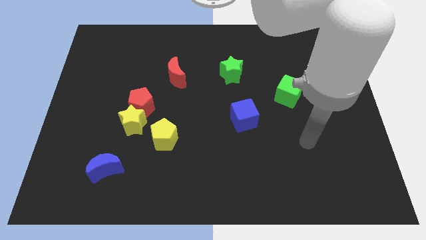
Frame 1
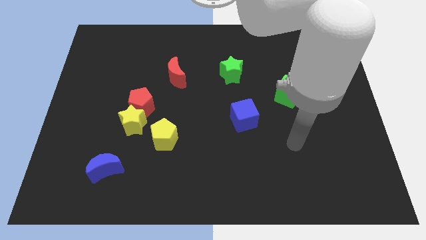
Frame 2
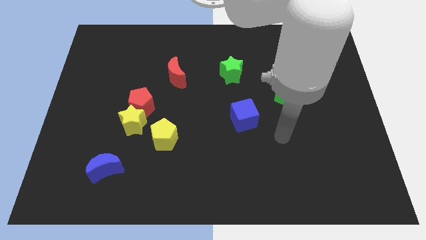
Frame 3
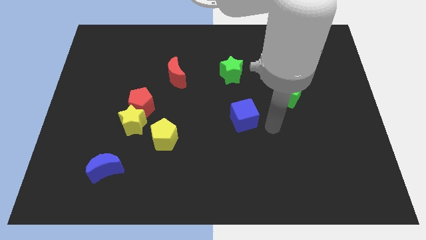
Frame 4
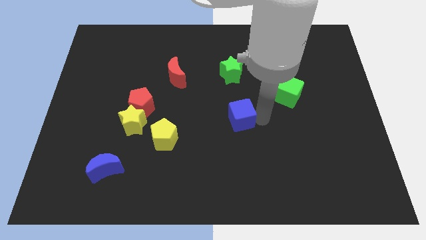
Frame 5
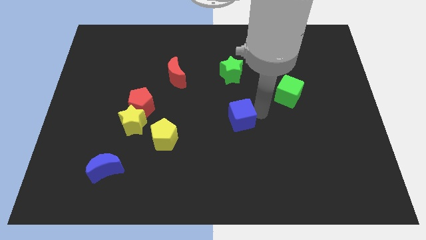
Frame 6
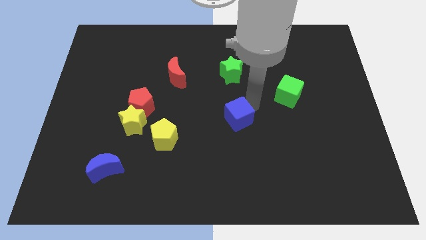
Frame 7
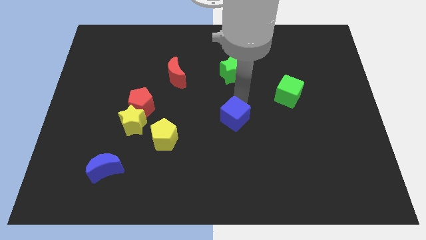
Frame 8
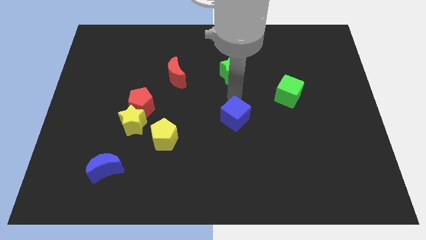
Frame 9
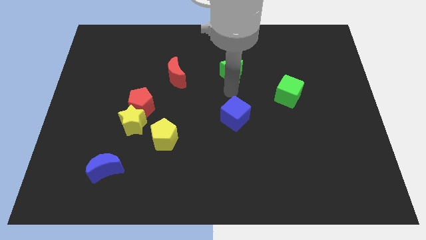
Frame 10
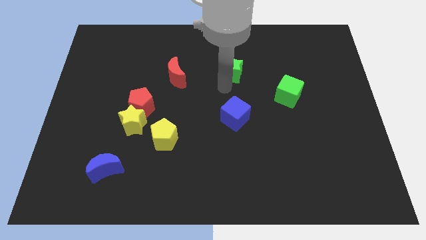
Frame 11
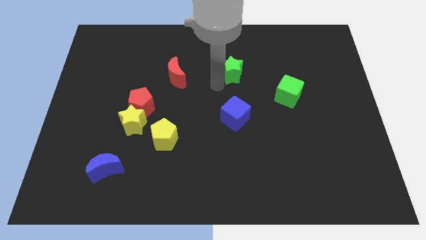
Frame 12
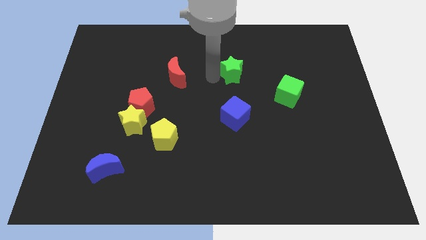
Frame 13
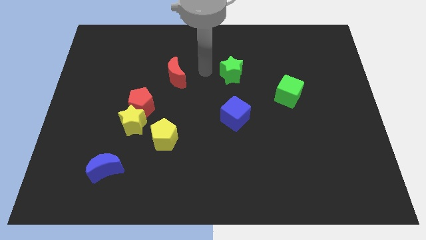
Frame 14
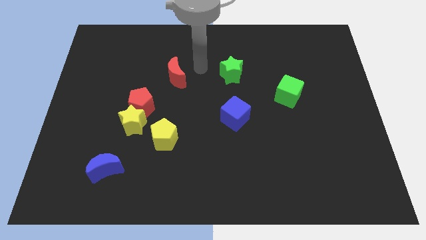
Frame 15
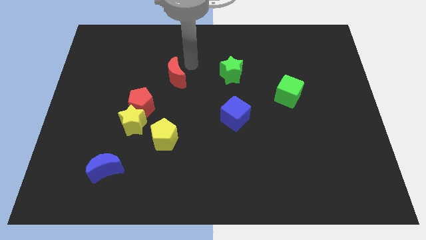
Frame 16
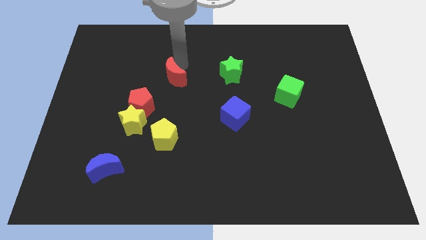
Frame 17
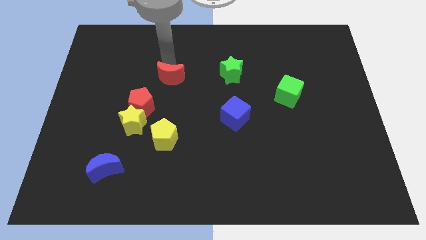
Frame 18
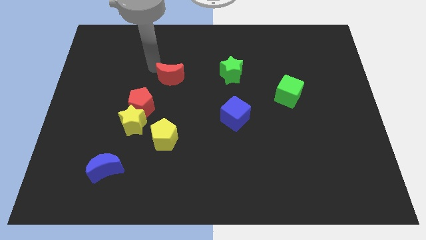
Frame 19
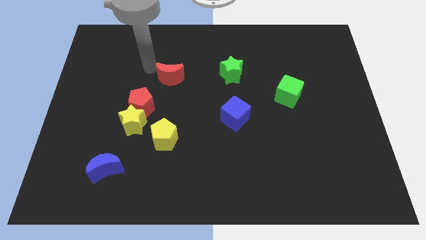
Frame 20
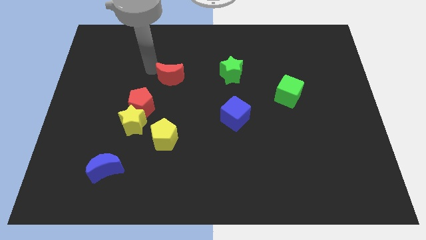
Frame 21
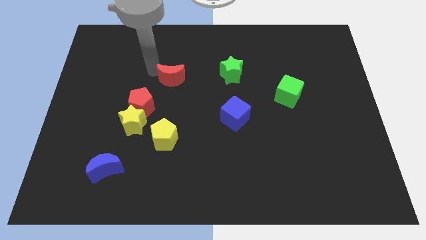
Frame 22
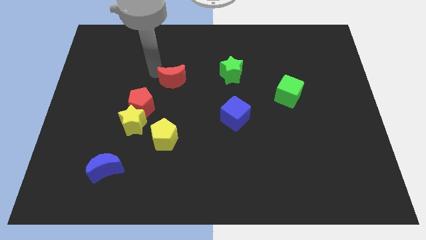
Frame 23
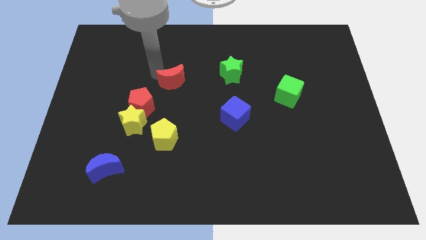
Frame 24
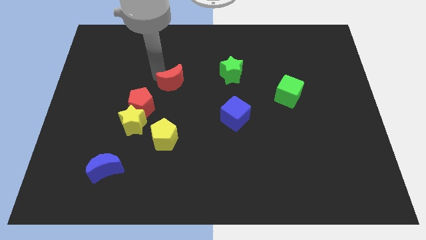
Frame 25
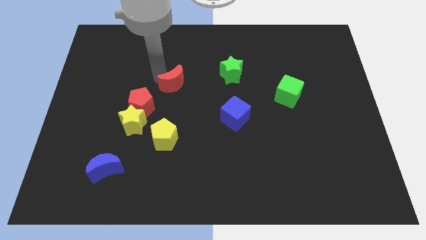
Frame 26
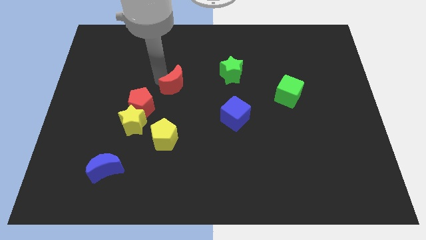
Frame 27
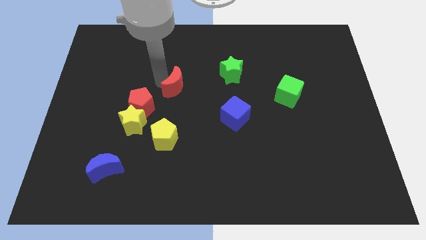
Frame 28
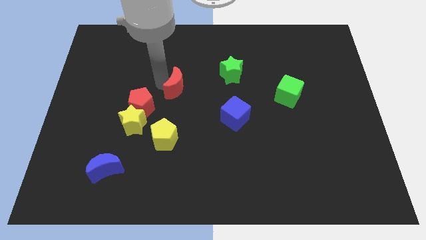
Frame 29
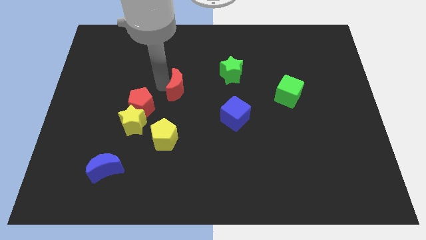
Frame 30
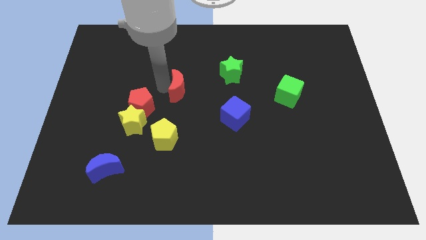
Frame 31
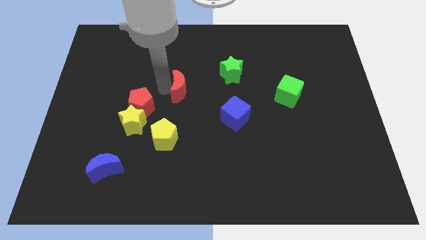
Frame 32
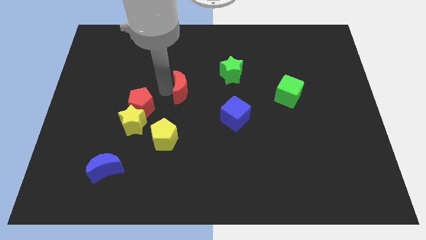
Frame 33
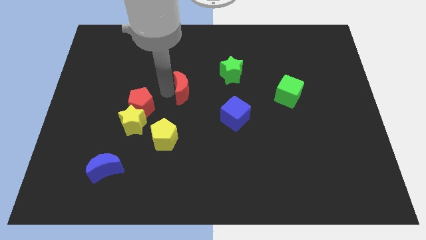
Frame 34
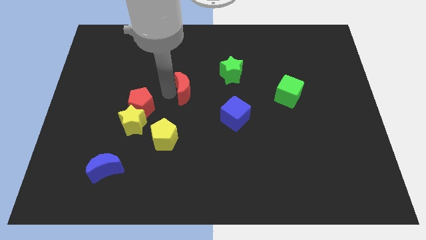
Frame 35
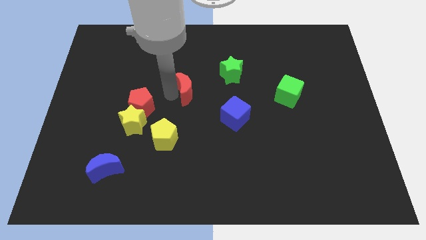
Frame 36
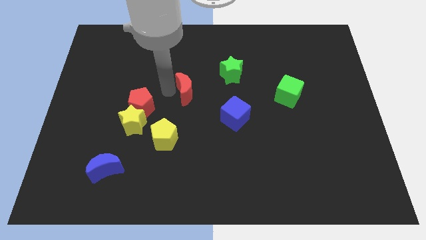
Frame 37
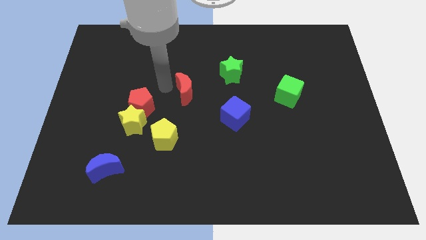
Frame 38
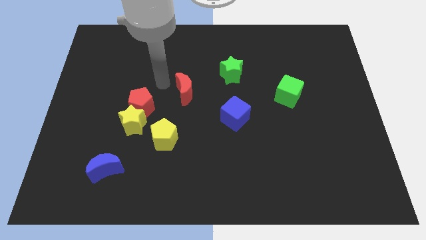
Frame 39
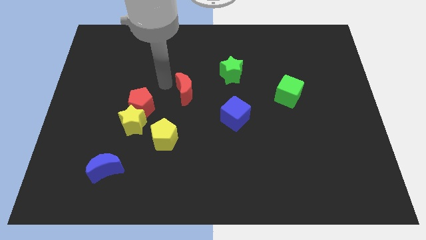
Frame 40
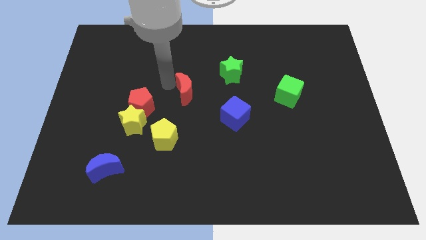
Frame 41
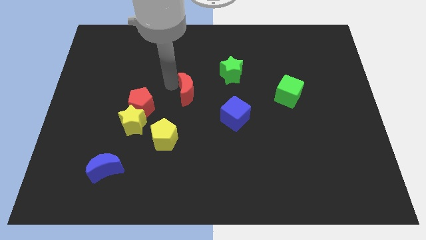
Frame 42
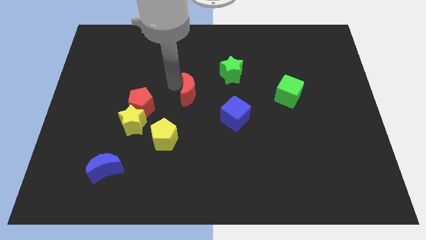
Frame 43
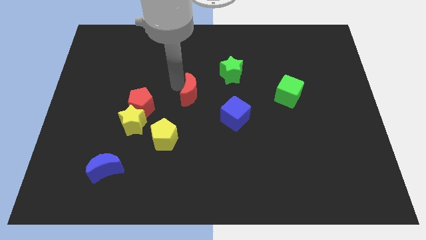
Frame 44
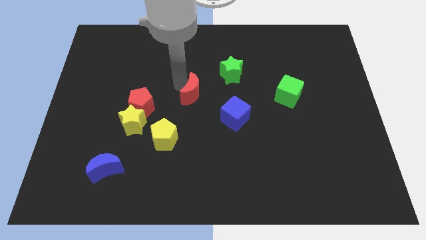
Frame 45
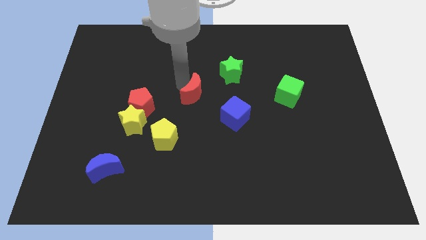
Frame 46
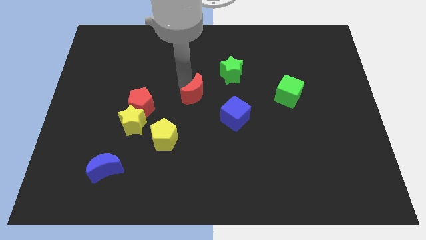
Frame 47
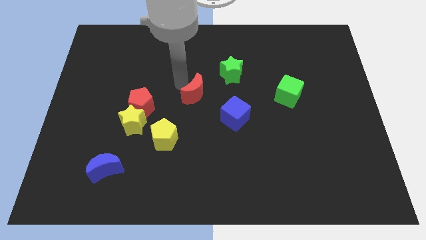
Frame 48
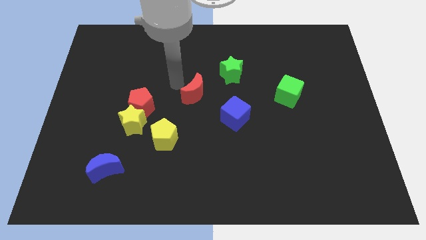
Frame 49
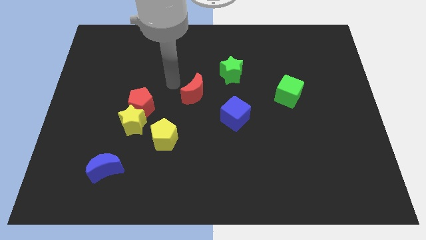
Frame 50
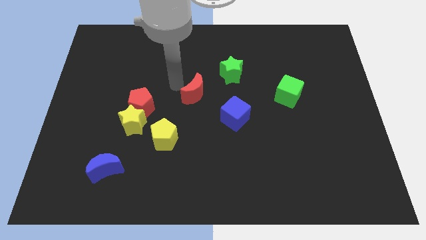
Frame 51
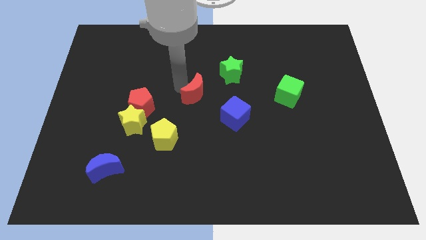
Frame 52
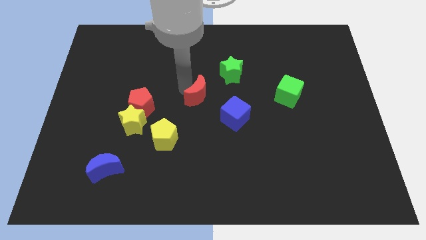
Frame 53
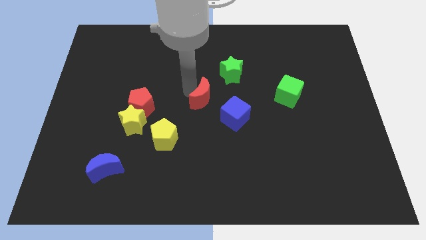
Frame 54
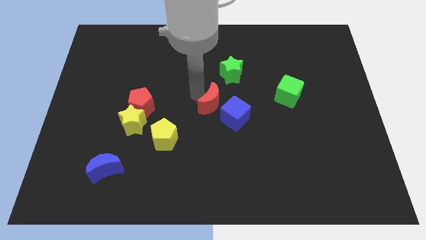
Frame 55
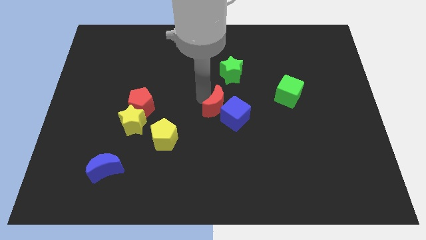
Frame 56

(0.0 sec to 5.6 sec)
move the red moon close to the blue cube

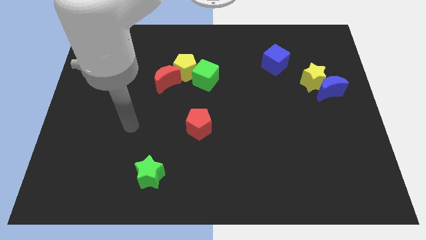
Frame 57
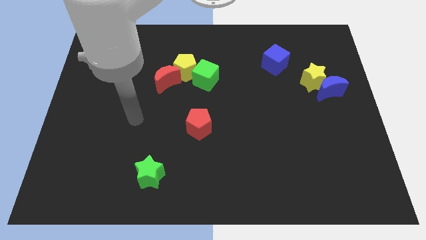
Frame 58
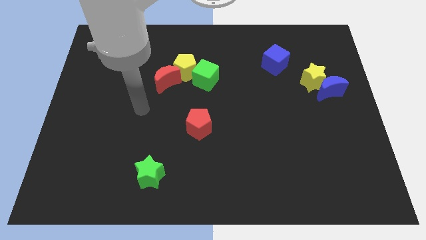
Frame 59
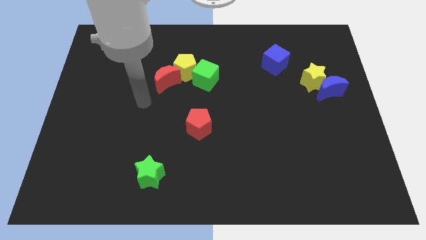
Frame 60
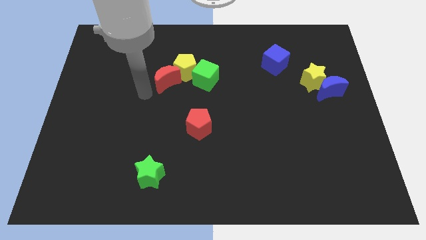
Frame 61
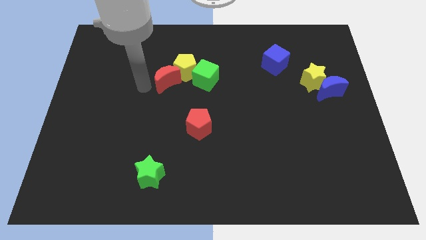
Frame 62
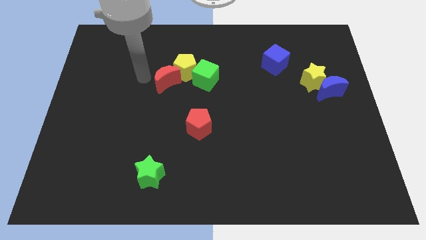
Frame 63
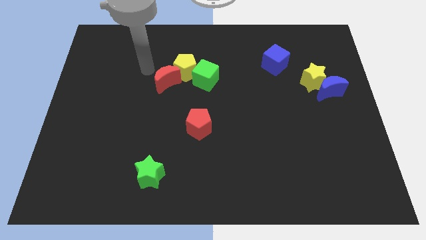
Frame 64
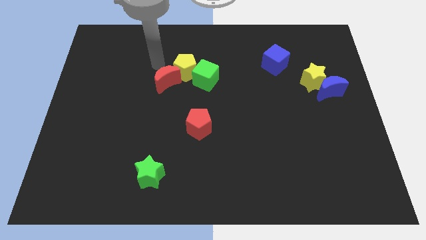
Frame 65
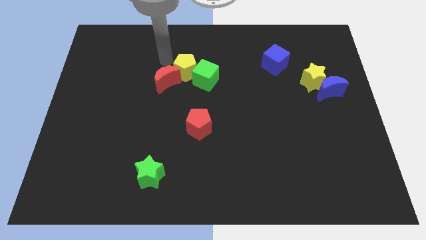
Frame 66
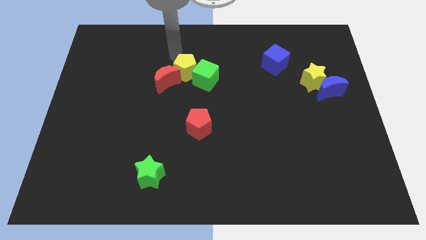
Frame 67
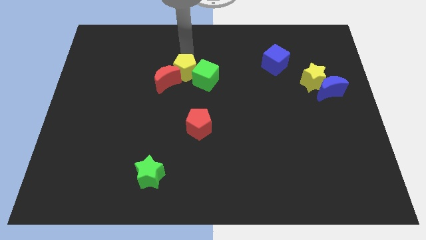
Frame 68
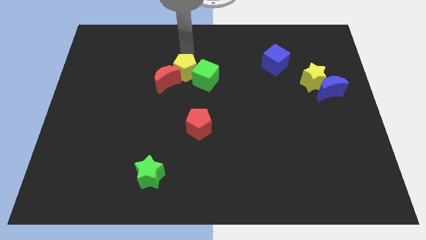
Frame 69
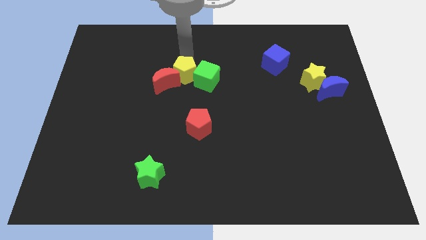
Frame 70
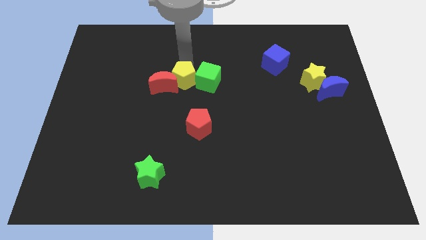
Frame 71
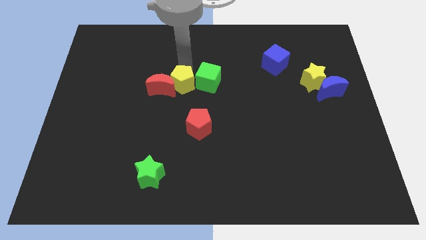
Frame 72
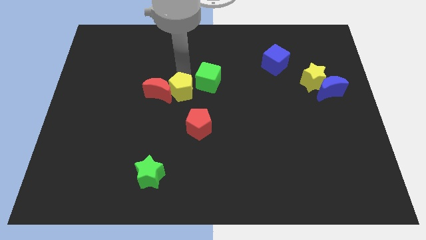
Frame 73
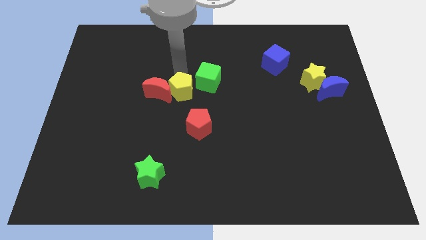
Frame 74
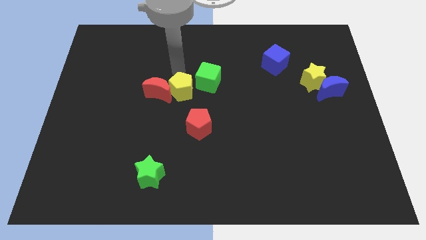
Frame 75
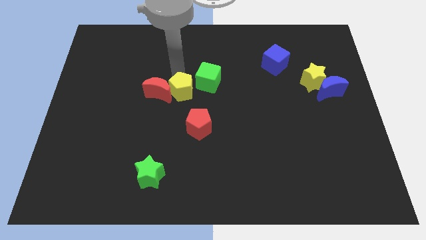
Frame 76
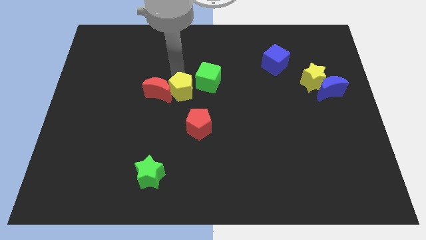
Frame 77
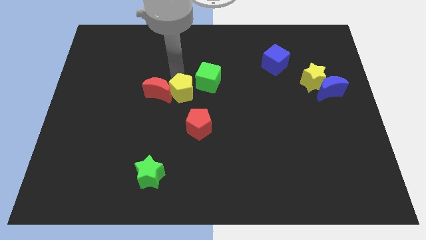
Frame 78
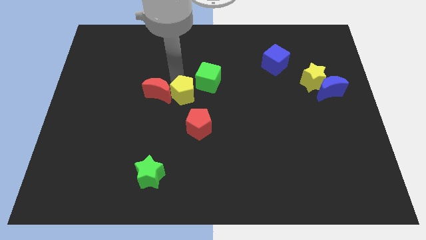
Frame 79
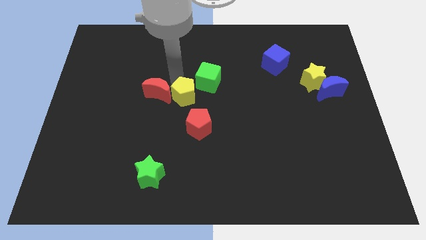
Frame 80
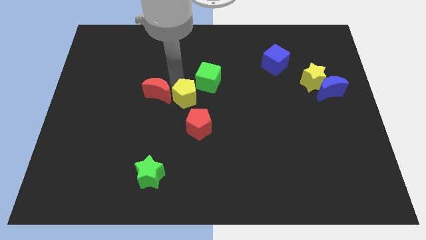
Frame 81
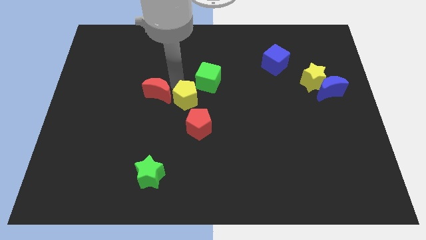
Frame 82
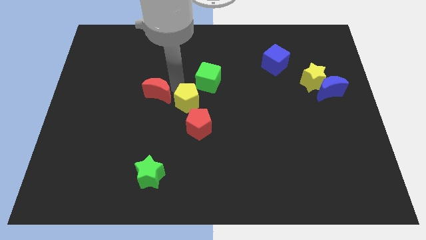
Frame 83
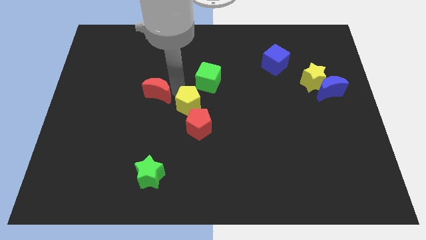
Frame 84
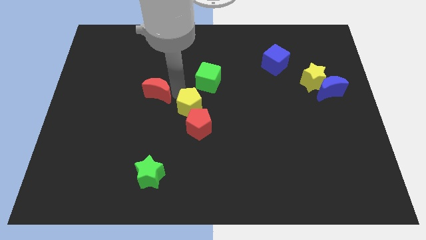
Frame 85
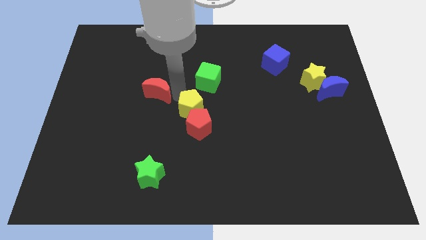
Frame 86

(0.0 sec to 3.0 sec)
put the yellow pentagon towards the red pentagon

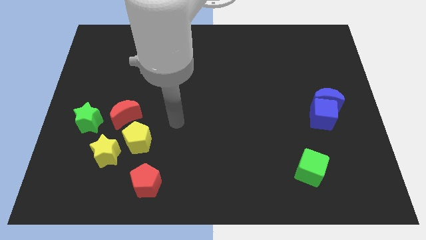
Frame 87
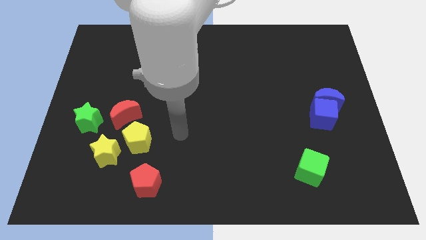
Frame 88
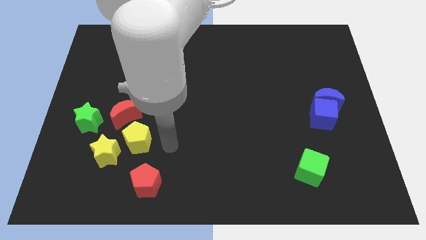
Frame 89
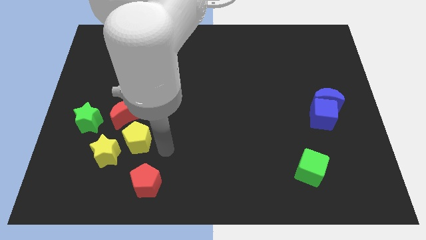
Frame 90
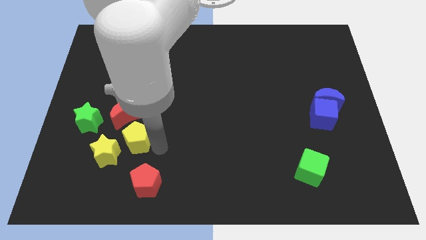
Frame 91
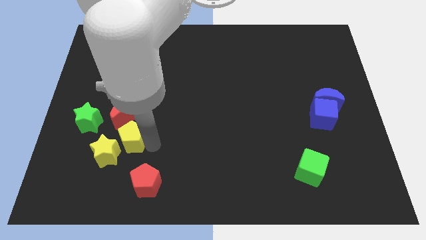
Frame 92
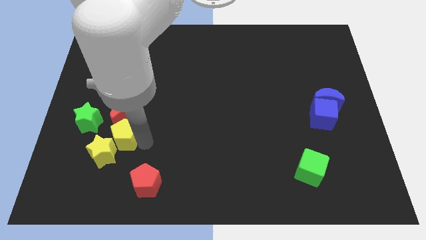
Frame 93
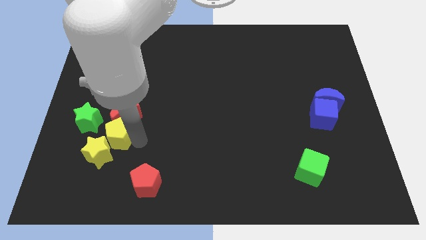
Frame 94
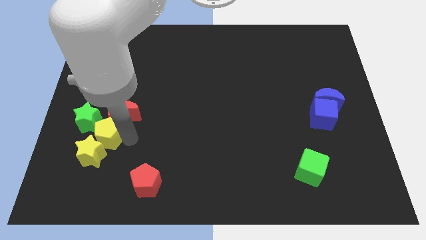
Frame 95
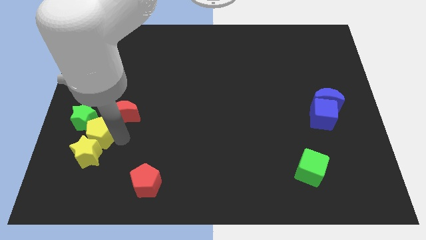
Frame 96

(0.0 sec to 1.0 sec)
push the yellow pentagon next to the green star
